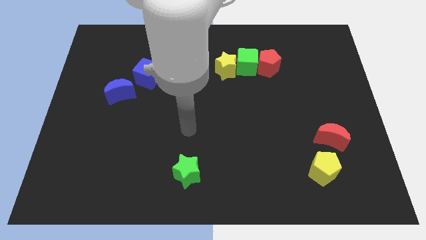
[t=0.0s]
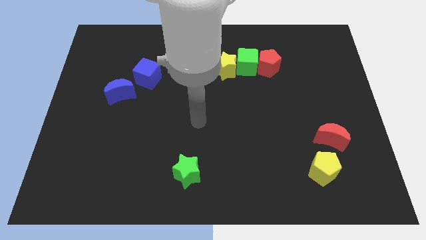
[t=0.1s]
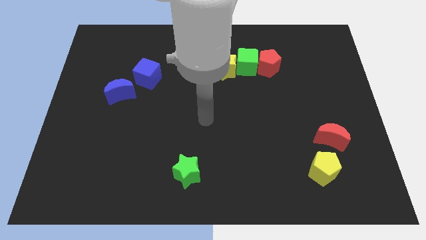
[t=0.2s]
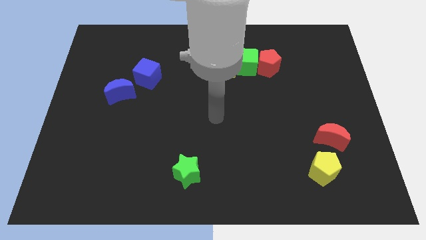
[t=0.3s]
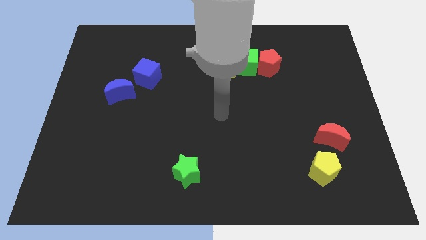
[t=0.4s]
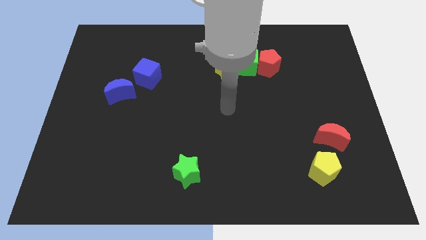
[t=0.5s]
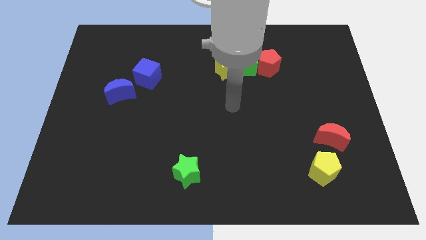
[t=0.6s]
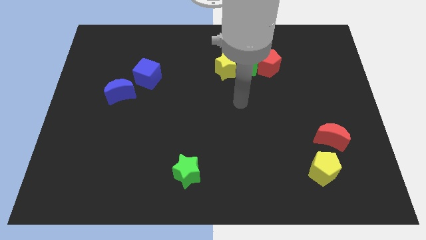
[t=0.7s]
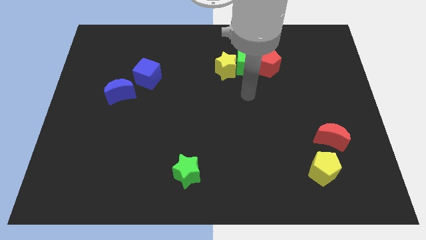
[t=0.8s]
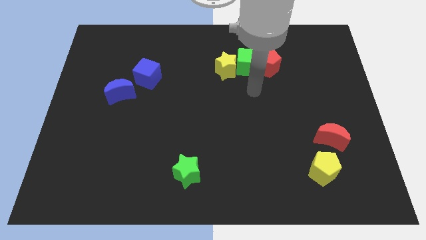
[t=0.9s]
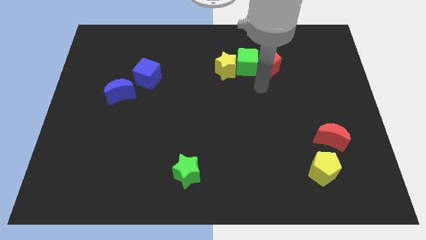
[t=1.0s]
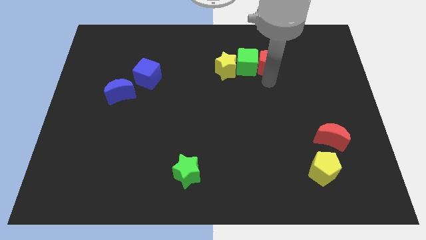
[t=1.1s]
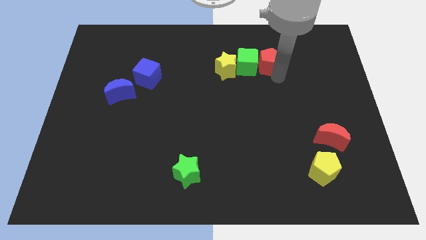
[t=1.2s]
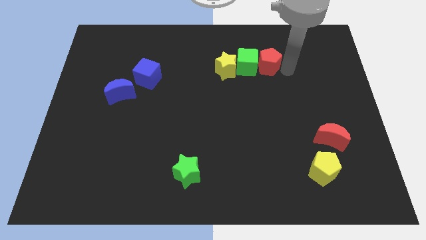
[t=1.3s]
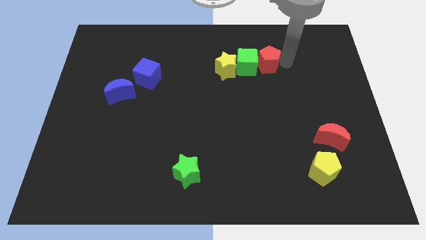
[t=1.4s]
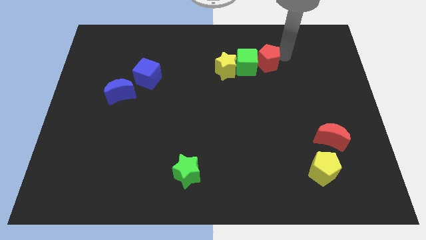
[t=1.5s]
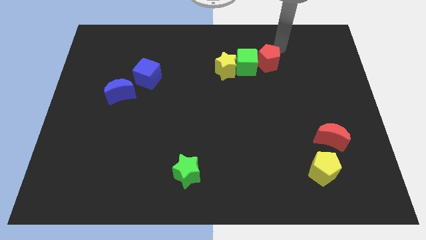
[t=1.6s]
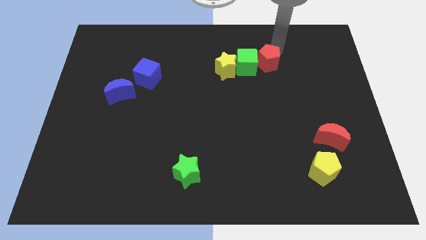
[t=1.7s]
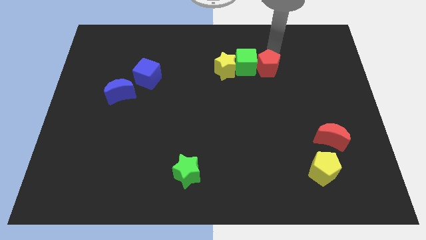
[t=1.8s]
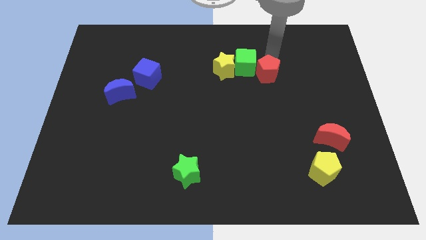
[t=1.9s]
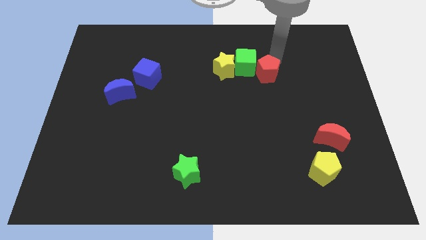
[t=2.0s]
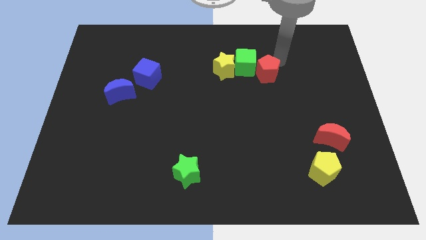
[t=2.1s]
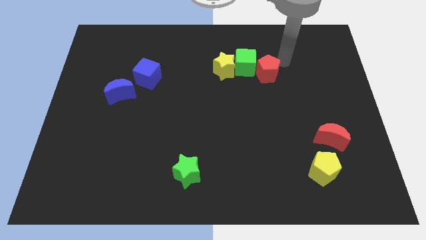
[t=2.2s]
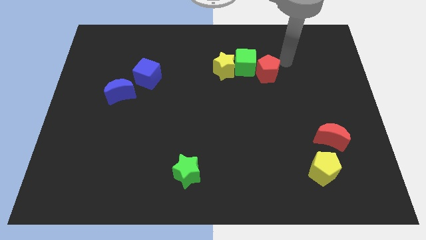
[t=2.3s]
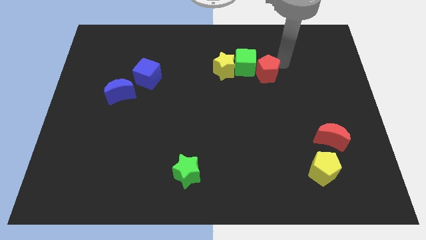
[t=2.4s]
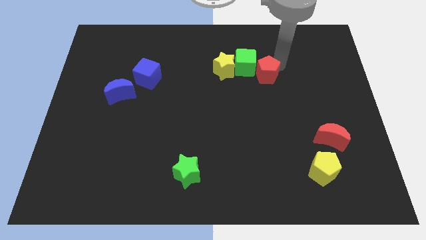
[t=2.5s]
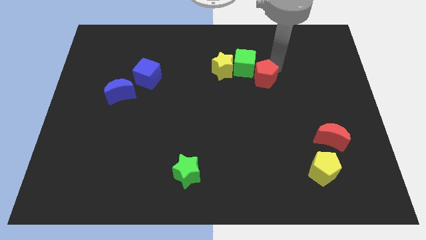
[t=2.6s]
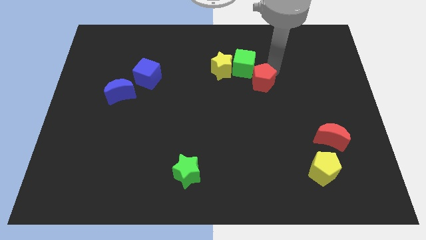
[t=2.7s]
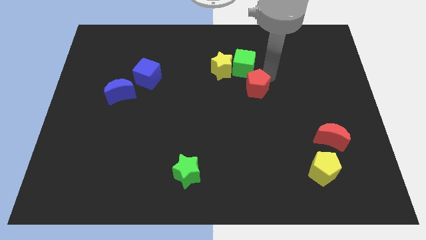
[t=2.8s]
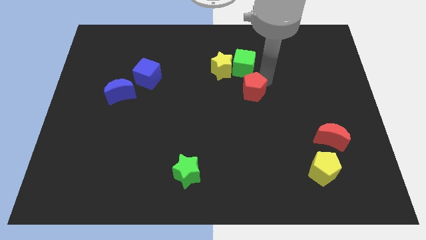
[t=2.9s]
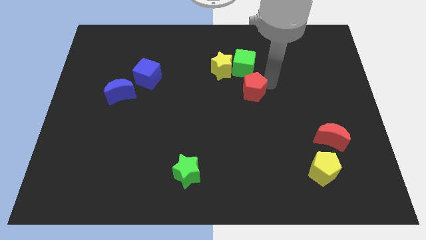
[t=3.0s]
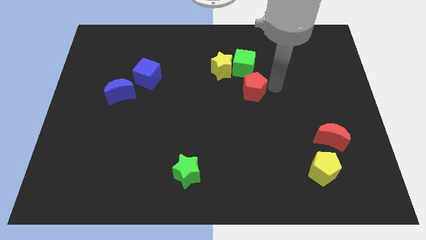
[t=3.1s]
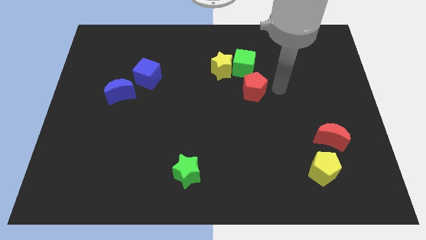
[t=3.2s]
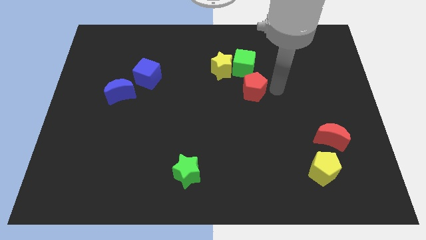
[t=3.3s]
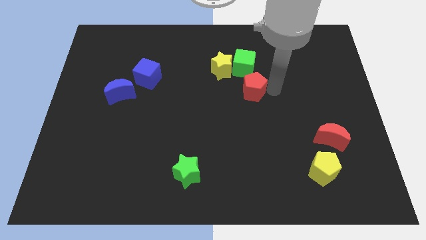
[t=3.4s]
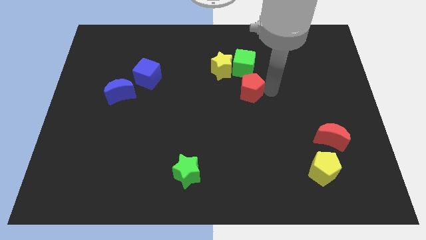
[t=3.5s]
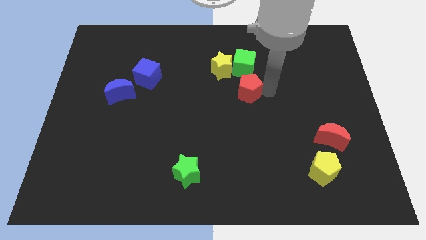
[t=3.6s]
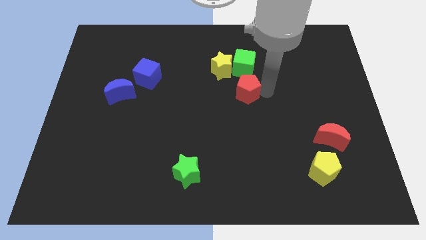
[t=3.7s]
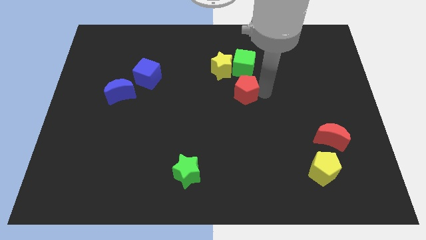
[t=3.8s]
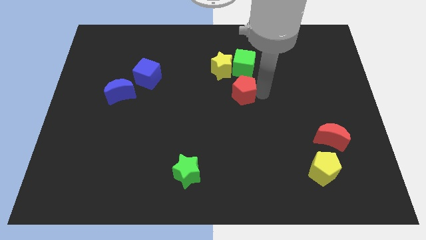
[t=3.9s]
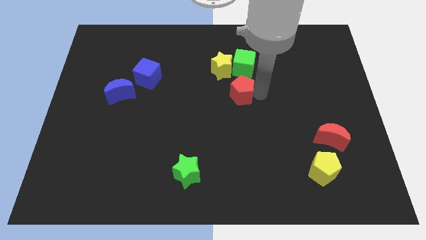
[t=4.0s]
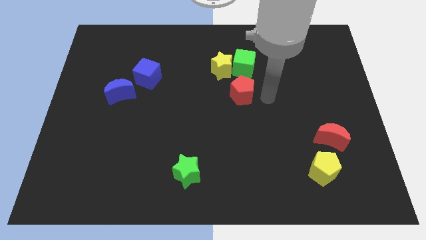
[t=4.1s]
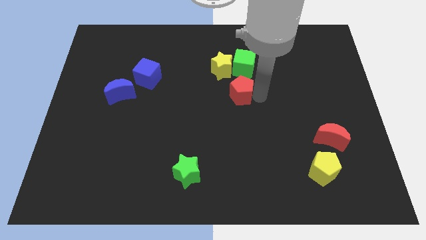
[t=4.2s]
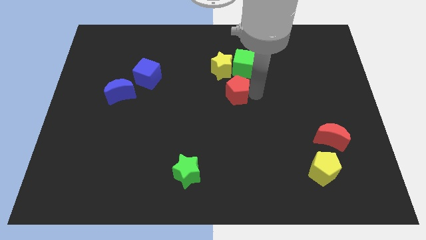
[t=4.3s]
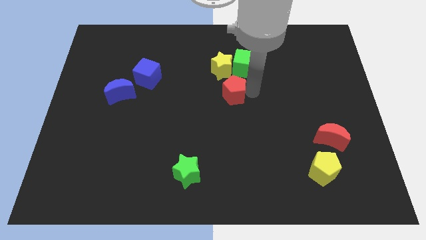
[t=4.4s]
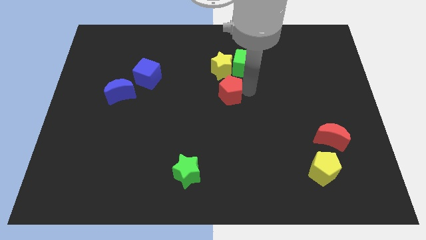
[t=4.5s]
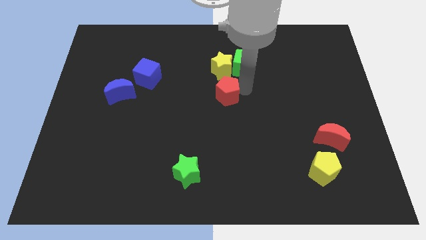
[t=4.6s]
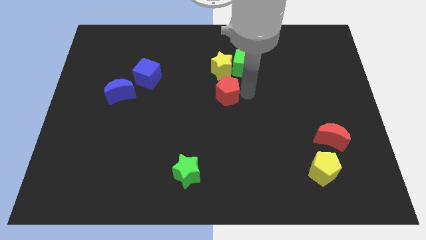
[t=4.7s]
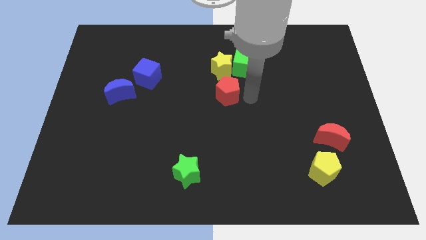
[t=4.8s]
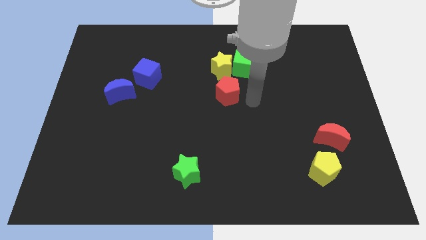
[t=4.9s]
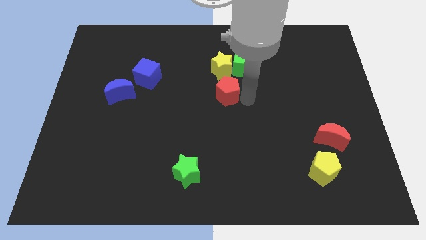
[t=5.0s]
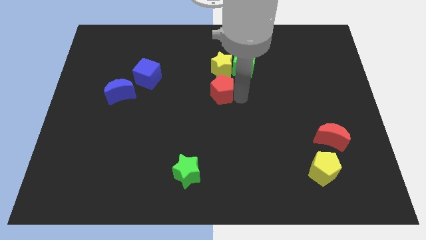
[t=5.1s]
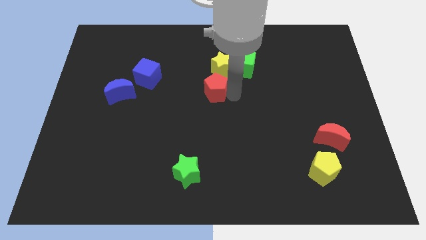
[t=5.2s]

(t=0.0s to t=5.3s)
put the red pentagon to the bottom left of the yellow star

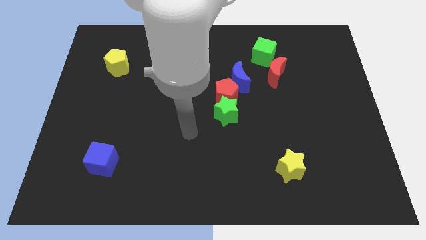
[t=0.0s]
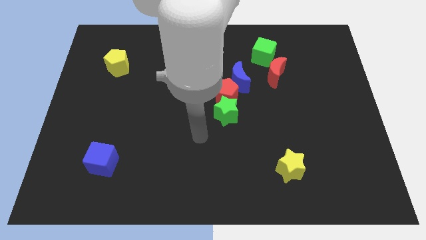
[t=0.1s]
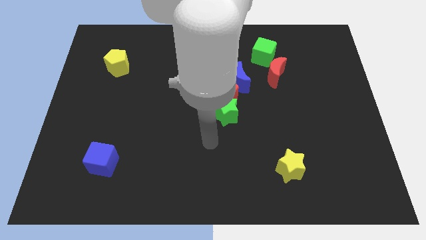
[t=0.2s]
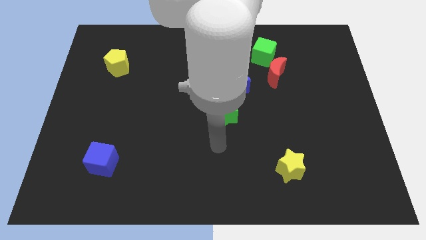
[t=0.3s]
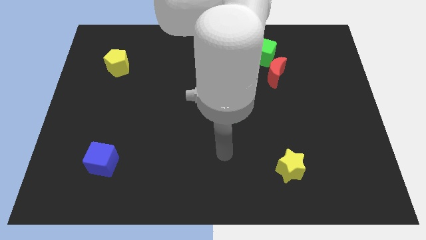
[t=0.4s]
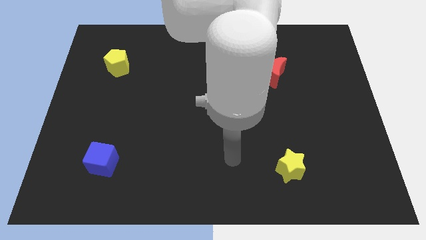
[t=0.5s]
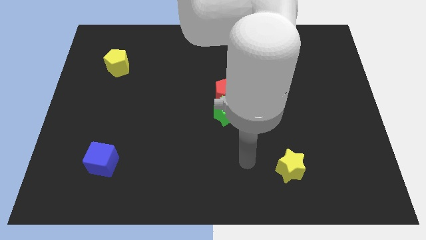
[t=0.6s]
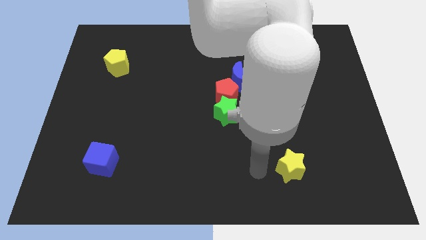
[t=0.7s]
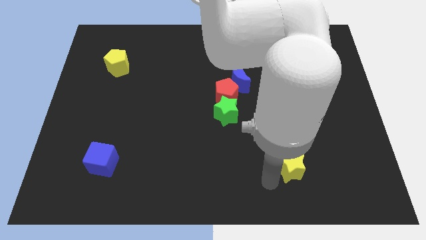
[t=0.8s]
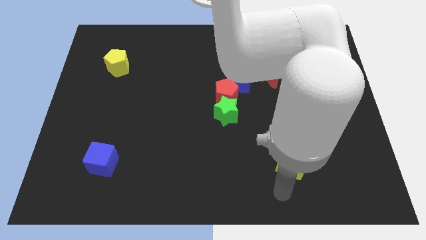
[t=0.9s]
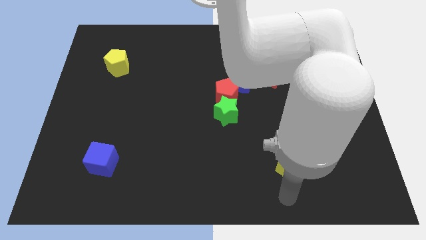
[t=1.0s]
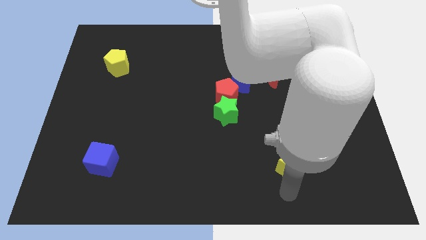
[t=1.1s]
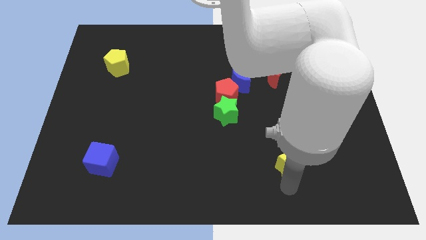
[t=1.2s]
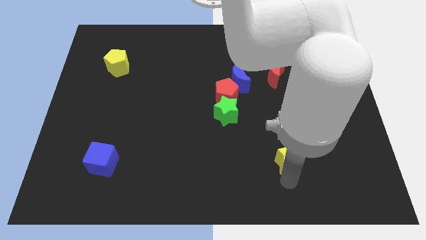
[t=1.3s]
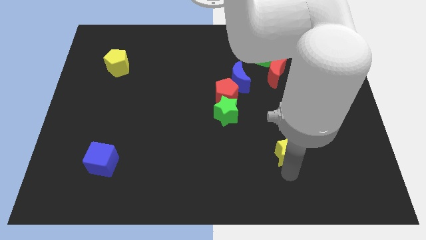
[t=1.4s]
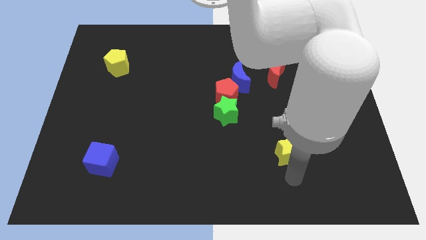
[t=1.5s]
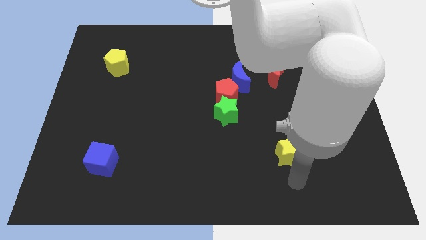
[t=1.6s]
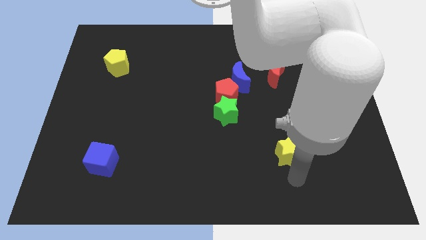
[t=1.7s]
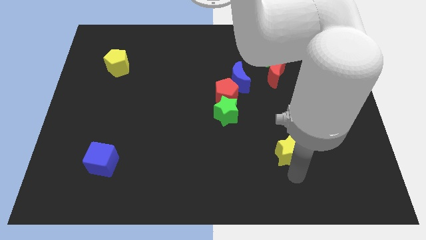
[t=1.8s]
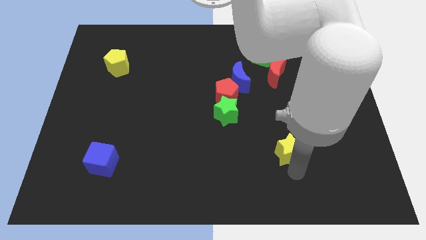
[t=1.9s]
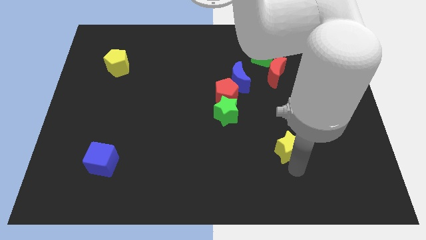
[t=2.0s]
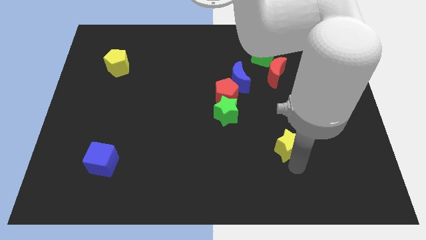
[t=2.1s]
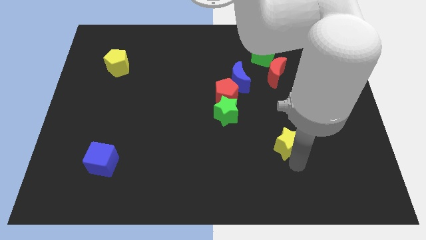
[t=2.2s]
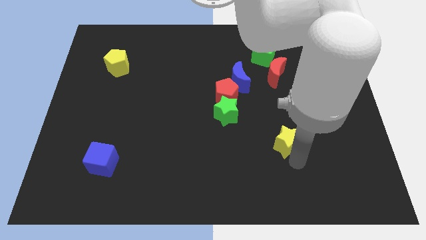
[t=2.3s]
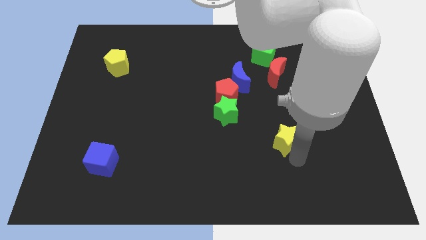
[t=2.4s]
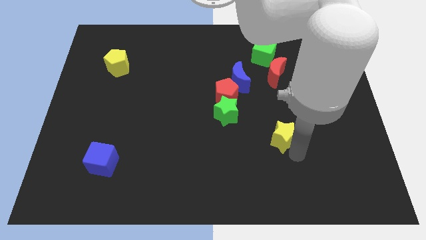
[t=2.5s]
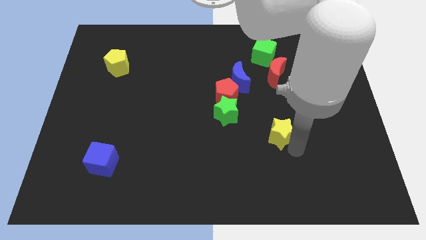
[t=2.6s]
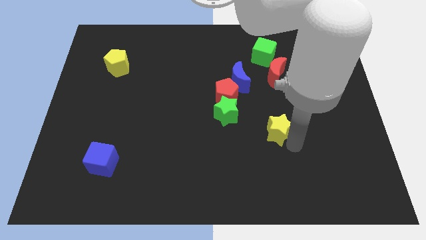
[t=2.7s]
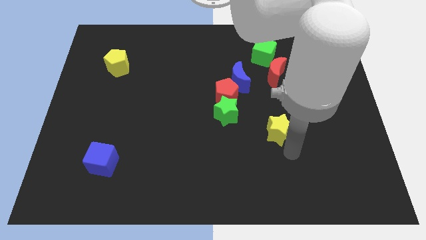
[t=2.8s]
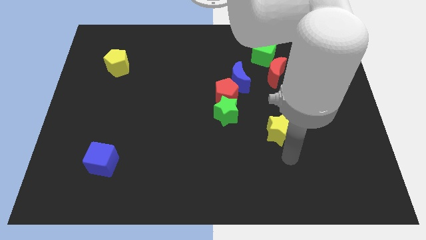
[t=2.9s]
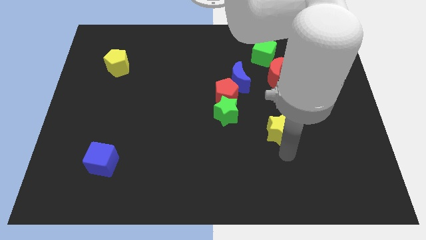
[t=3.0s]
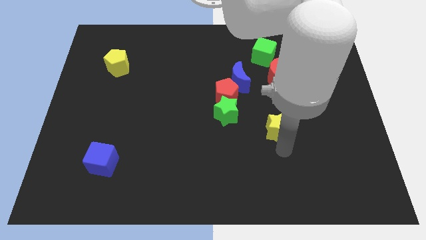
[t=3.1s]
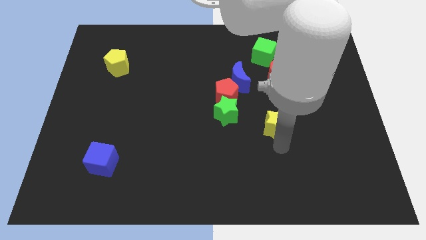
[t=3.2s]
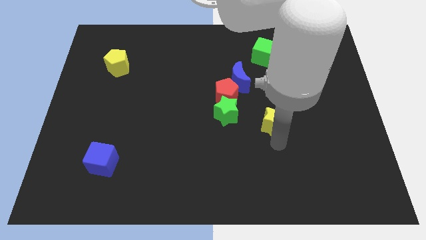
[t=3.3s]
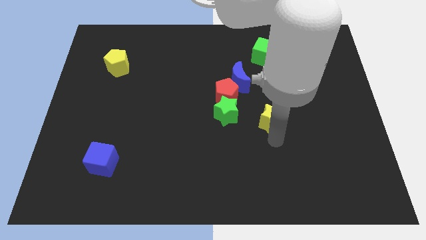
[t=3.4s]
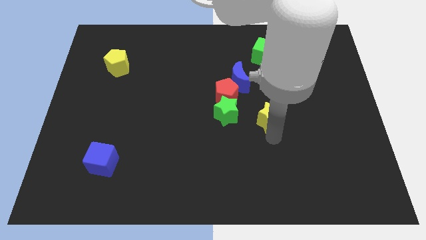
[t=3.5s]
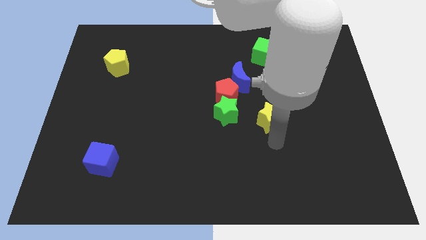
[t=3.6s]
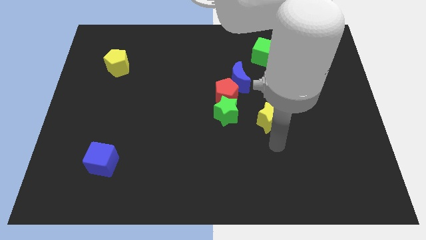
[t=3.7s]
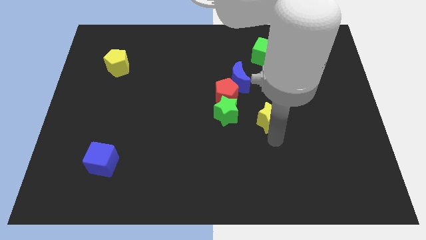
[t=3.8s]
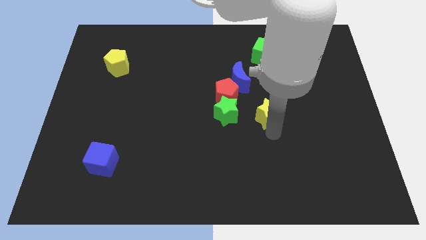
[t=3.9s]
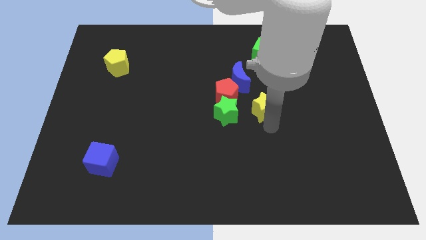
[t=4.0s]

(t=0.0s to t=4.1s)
slide the yellow star to the bottom right side of the blue moon
